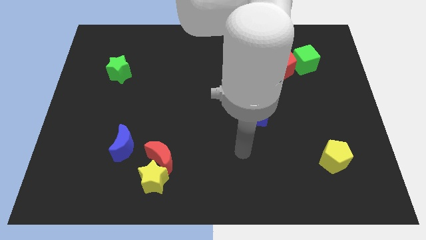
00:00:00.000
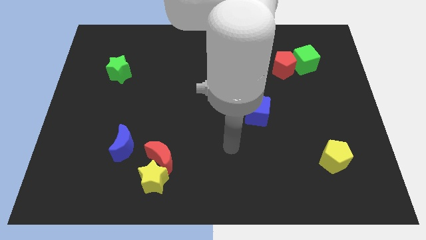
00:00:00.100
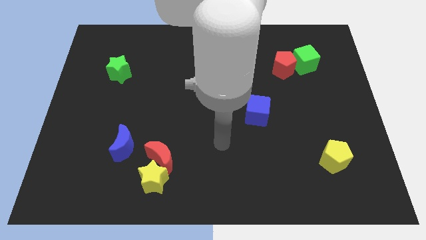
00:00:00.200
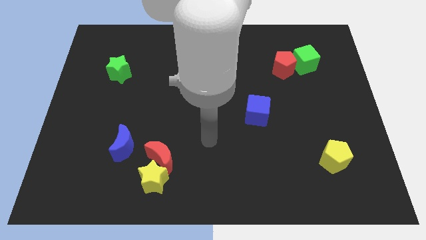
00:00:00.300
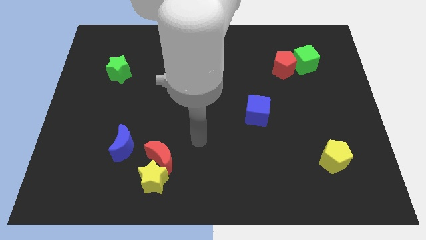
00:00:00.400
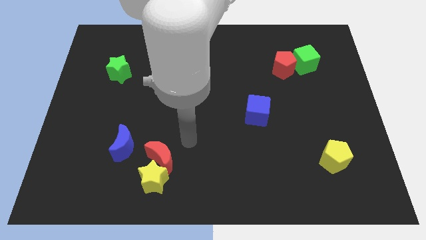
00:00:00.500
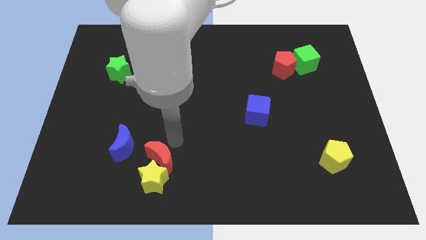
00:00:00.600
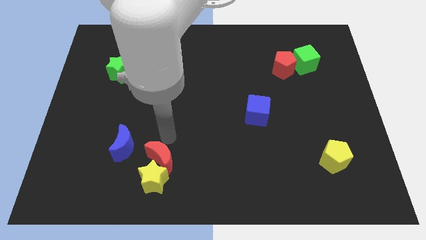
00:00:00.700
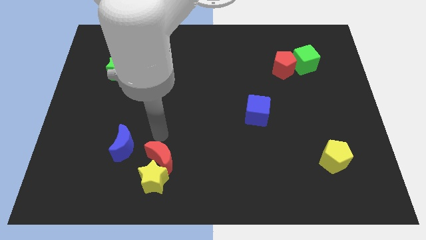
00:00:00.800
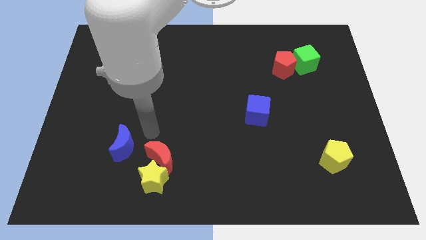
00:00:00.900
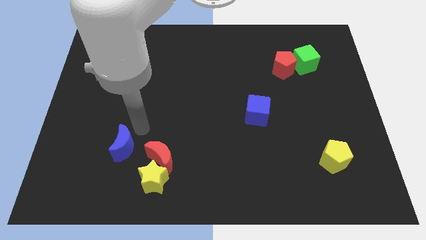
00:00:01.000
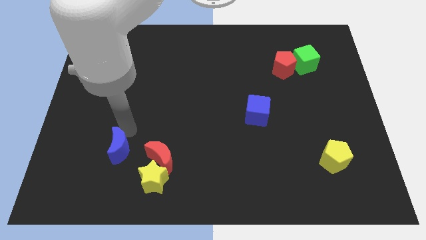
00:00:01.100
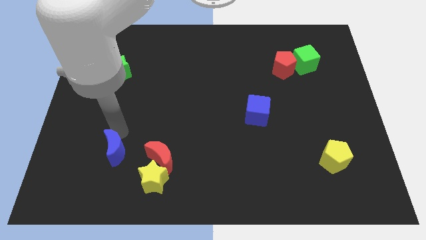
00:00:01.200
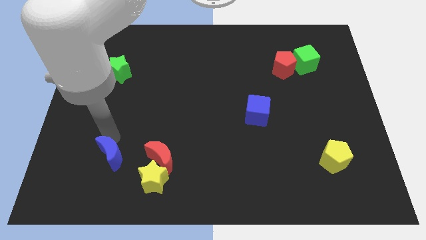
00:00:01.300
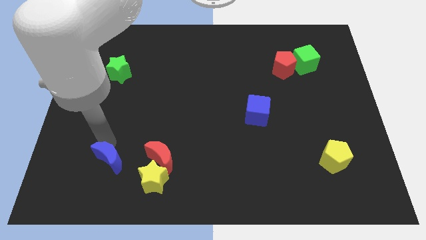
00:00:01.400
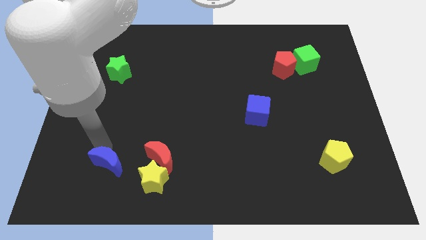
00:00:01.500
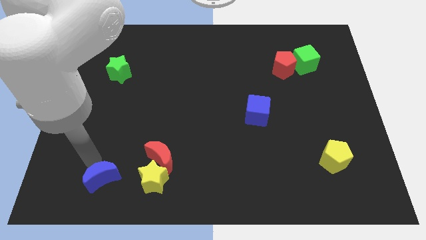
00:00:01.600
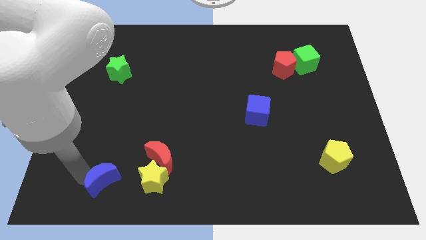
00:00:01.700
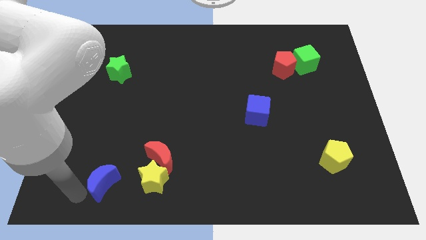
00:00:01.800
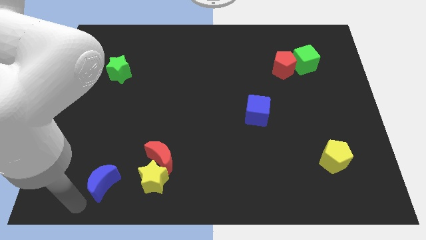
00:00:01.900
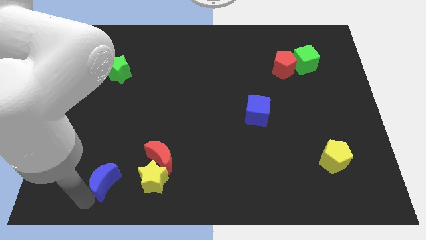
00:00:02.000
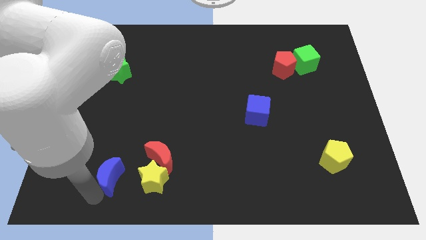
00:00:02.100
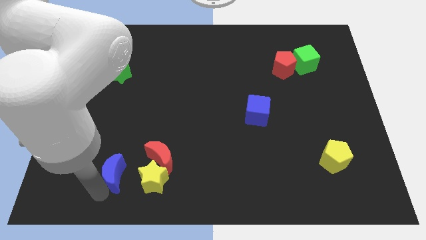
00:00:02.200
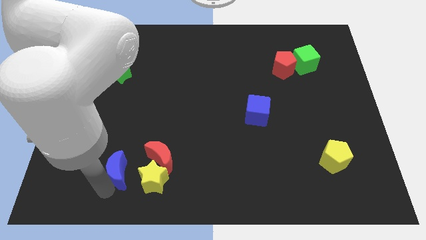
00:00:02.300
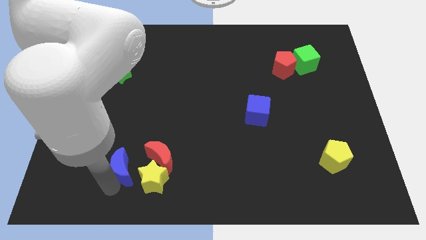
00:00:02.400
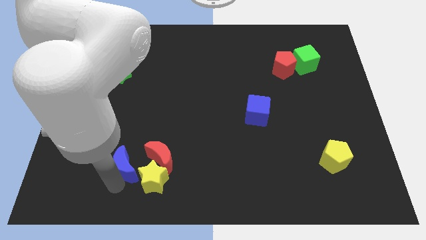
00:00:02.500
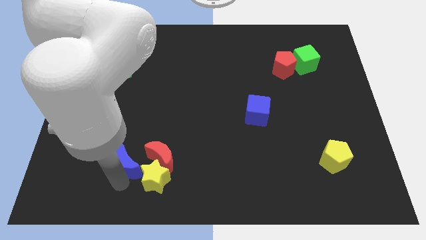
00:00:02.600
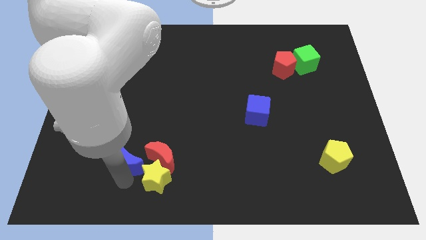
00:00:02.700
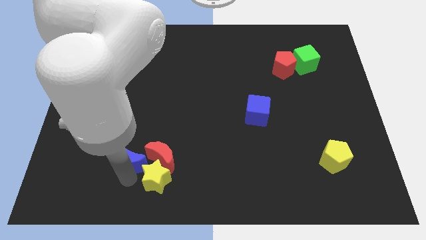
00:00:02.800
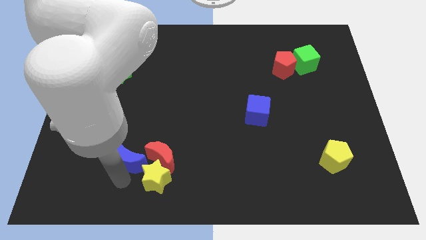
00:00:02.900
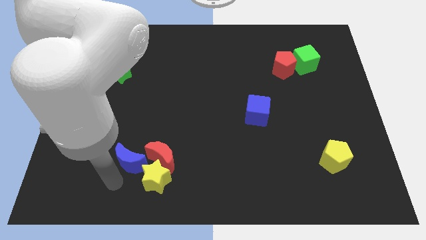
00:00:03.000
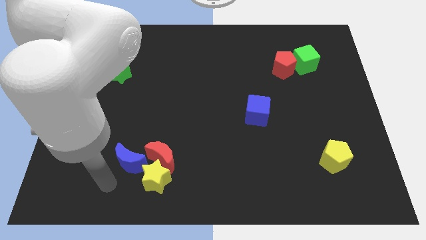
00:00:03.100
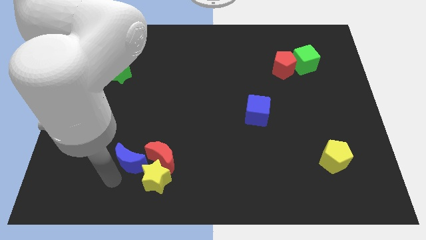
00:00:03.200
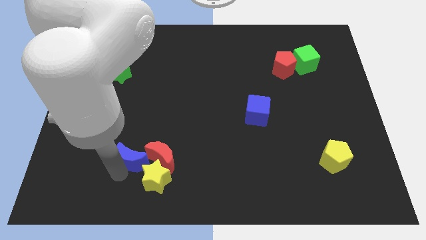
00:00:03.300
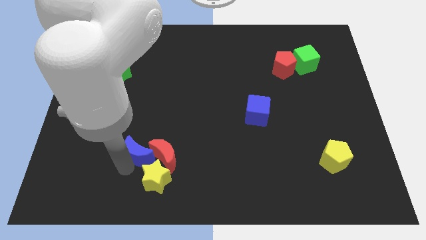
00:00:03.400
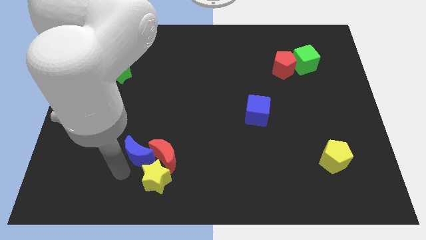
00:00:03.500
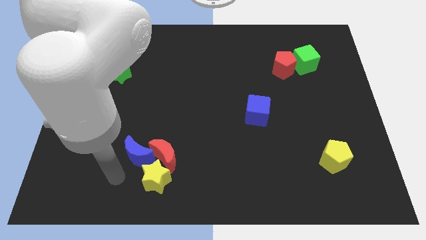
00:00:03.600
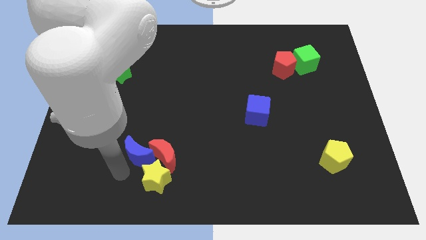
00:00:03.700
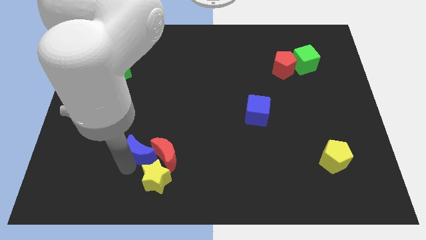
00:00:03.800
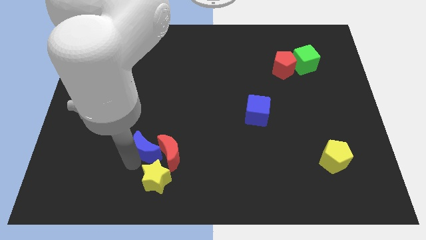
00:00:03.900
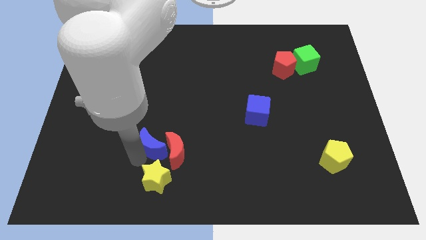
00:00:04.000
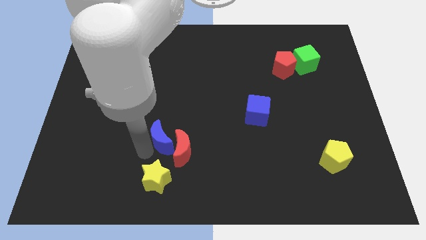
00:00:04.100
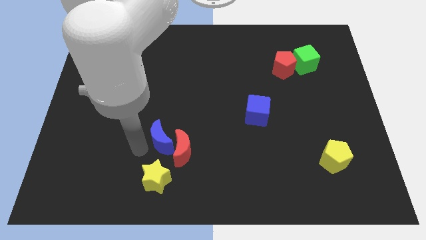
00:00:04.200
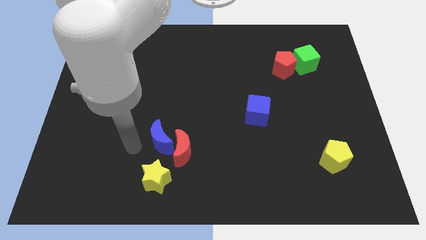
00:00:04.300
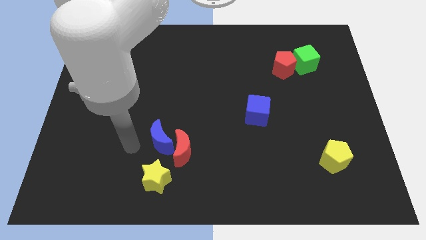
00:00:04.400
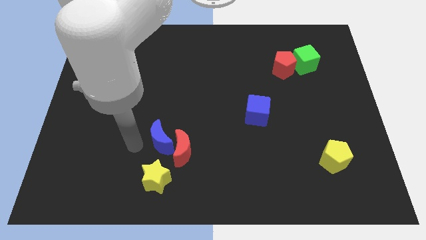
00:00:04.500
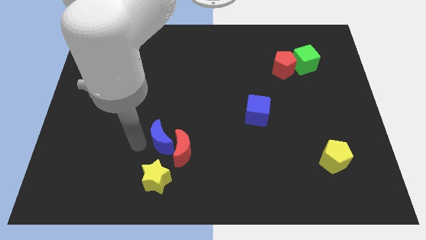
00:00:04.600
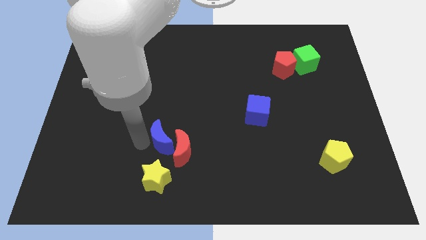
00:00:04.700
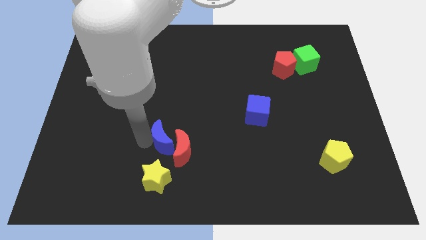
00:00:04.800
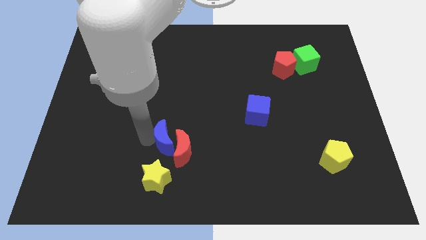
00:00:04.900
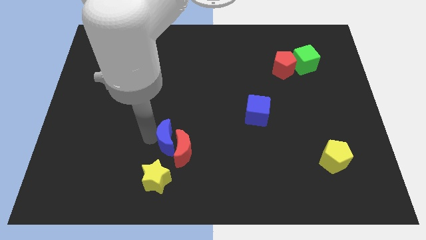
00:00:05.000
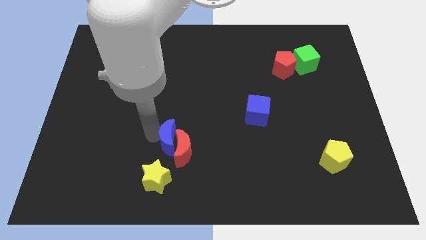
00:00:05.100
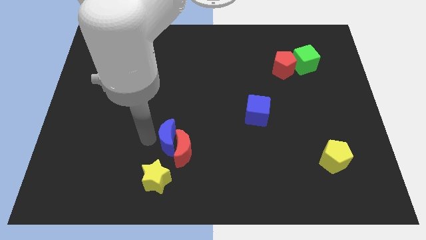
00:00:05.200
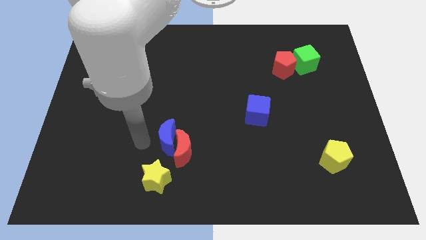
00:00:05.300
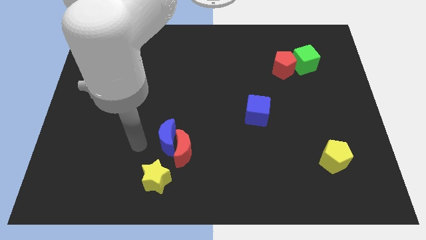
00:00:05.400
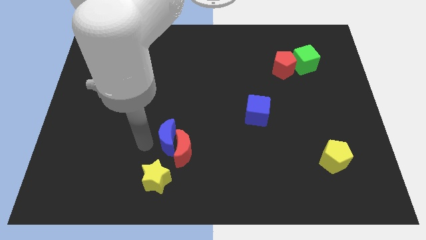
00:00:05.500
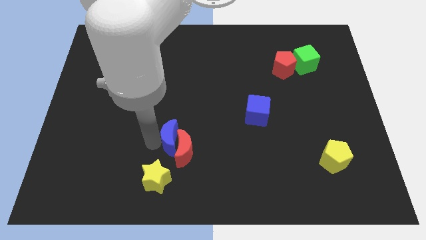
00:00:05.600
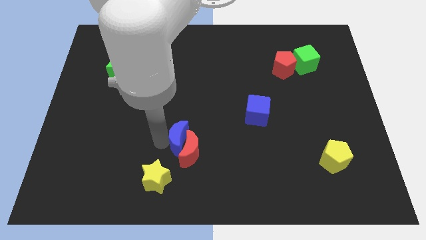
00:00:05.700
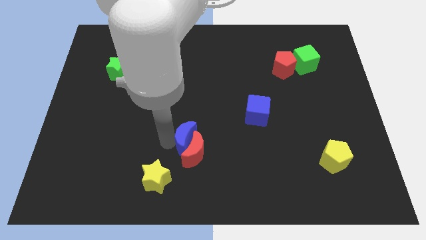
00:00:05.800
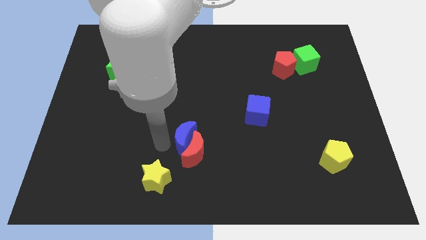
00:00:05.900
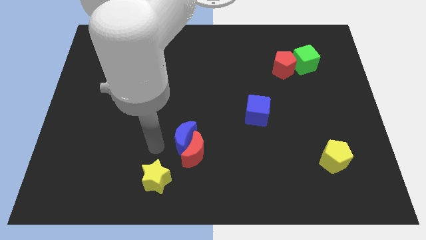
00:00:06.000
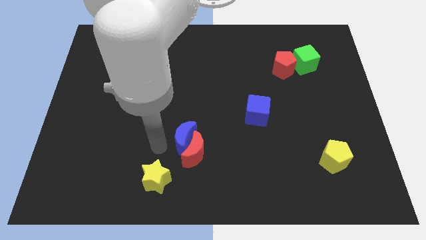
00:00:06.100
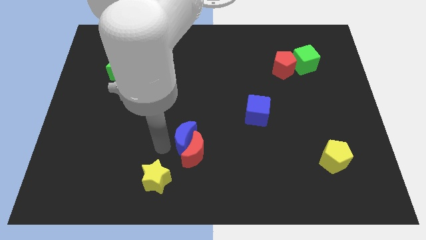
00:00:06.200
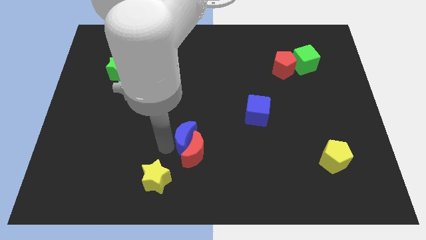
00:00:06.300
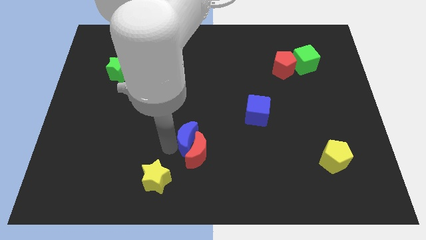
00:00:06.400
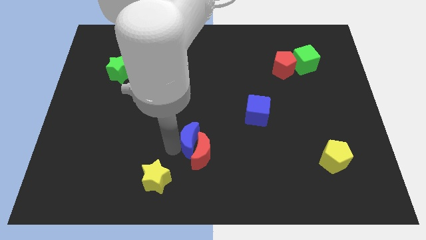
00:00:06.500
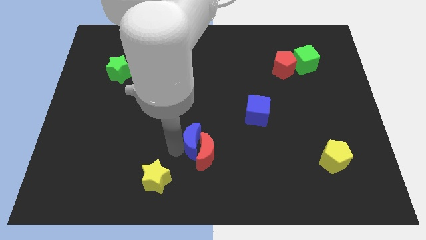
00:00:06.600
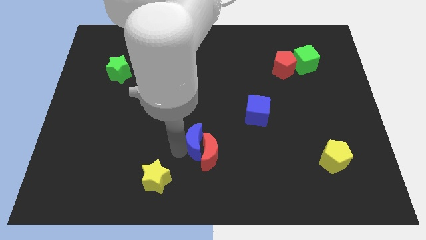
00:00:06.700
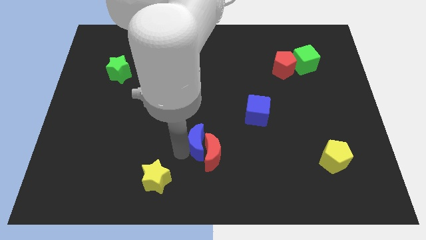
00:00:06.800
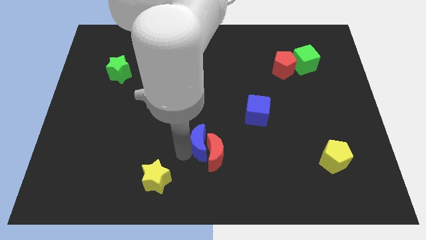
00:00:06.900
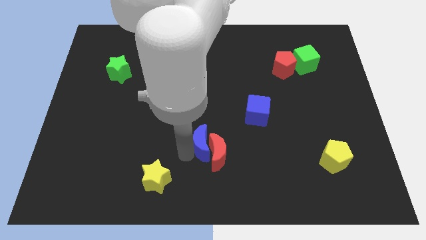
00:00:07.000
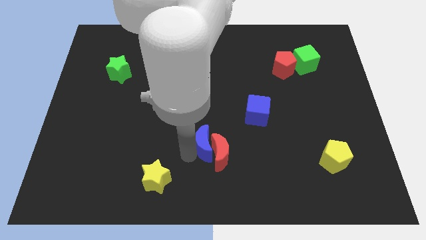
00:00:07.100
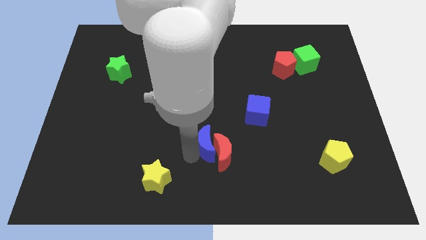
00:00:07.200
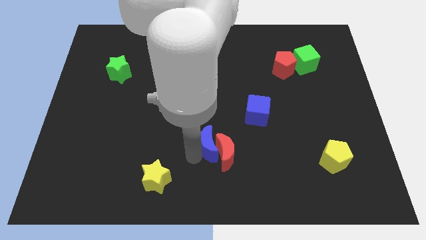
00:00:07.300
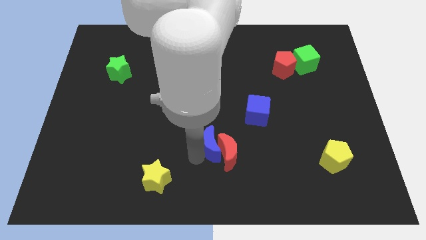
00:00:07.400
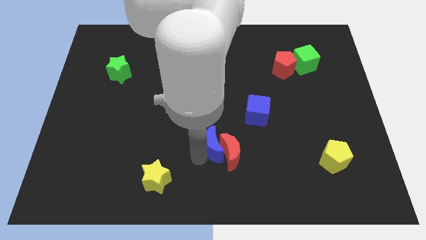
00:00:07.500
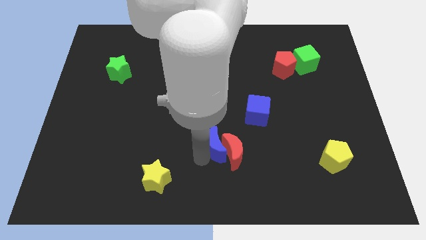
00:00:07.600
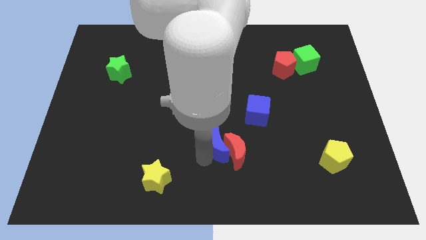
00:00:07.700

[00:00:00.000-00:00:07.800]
push the blue moon right

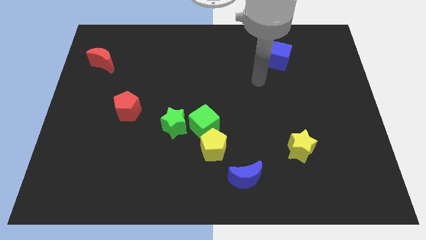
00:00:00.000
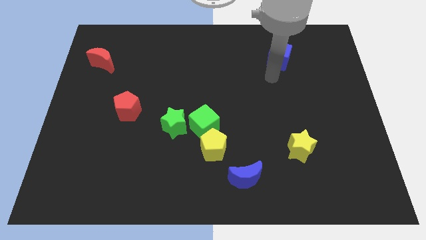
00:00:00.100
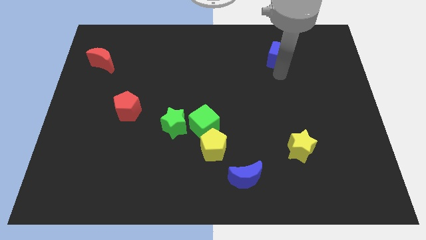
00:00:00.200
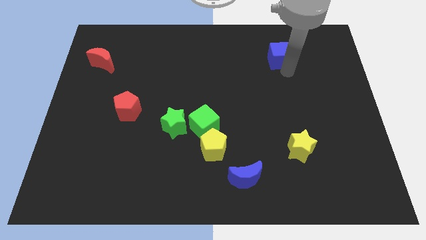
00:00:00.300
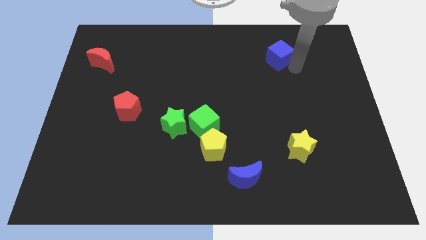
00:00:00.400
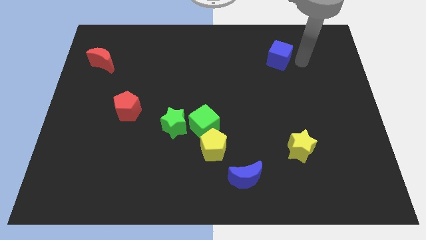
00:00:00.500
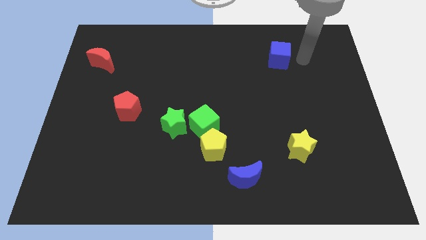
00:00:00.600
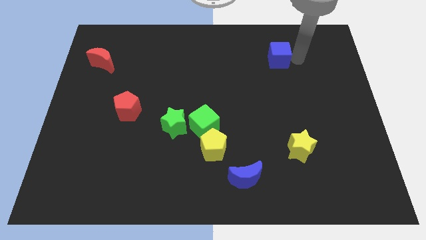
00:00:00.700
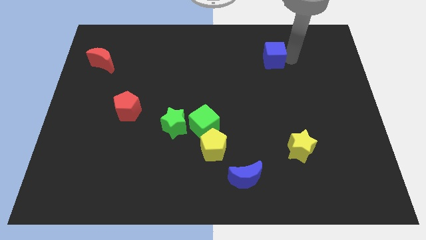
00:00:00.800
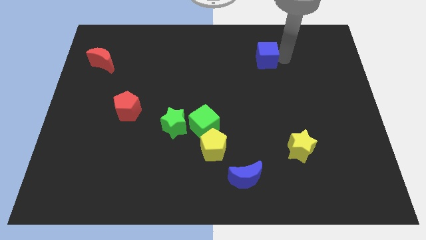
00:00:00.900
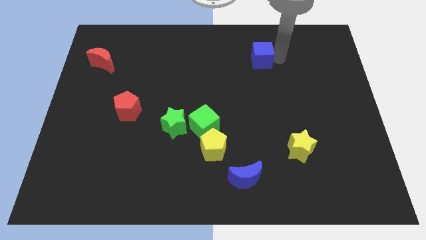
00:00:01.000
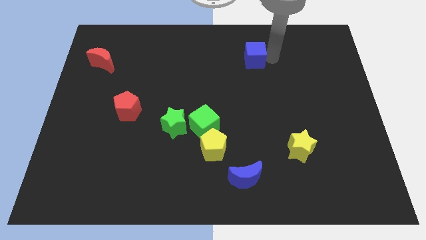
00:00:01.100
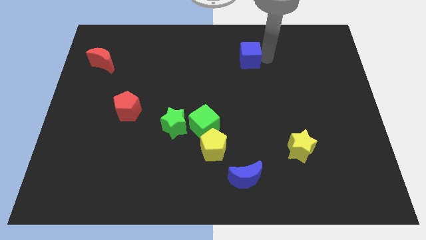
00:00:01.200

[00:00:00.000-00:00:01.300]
slightly push the blue cube to the left
